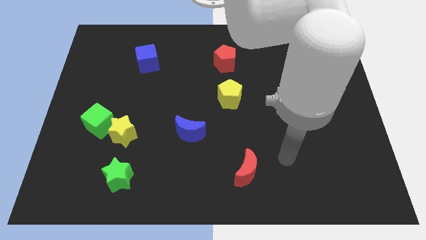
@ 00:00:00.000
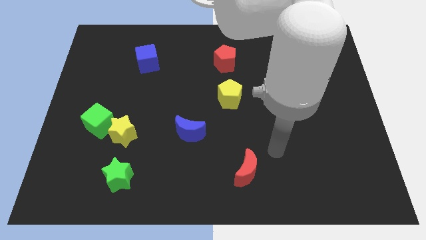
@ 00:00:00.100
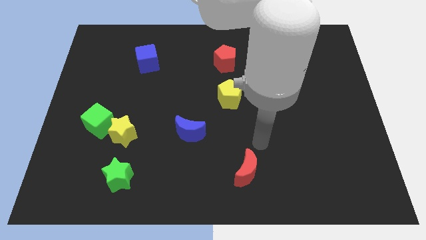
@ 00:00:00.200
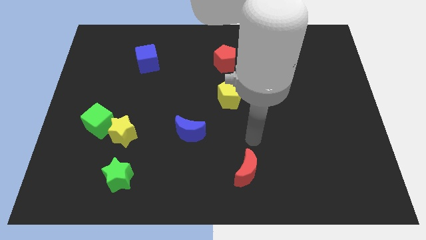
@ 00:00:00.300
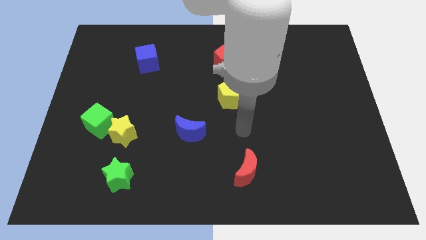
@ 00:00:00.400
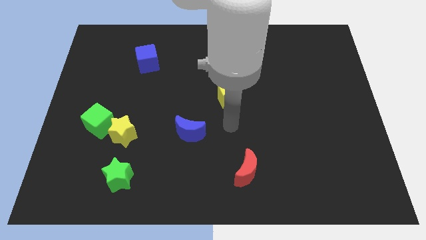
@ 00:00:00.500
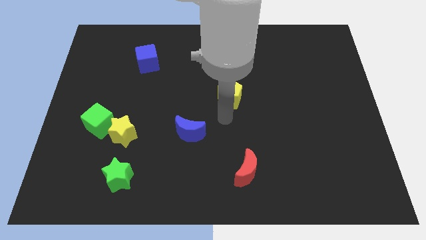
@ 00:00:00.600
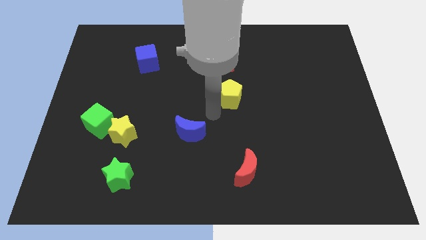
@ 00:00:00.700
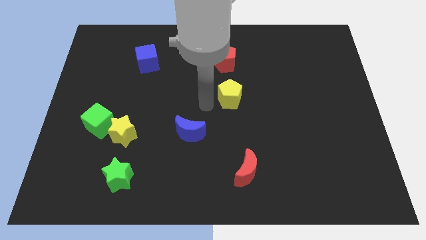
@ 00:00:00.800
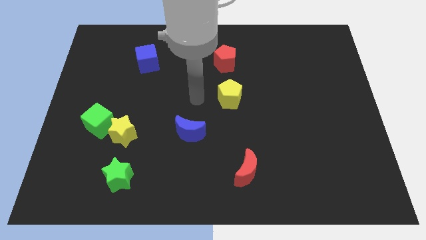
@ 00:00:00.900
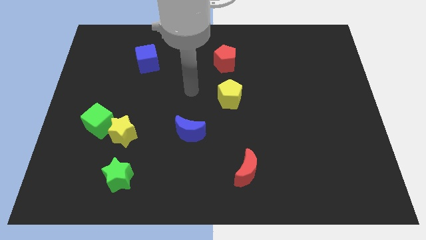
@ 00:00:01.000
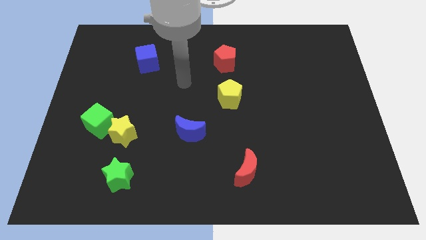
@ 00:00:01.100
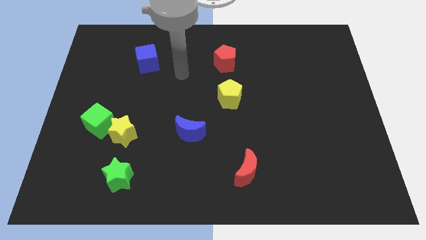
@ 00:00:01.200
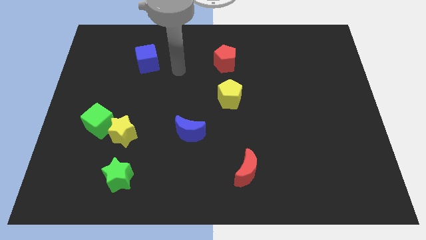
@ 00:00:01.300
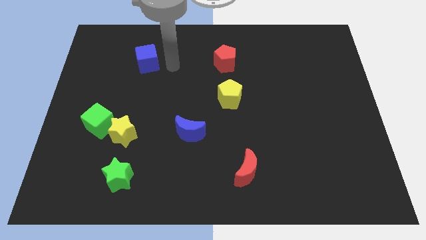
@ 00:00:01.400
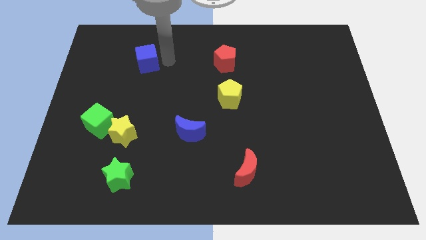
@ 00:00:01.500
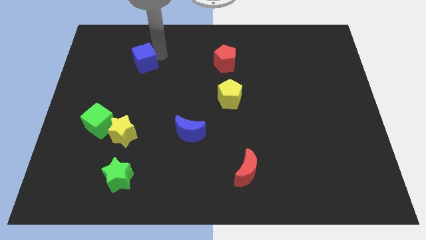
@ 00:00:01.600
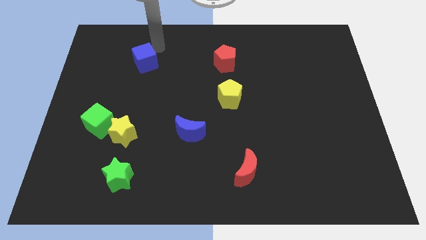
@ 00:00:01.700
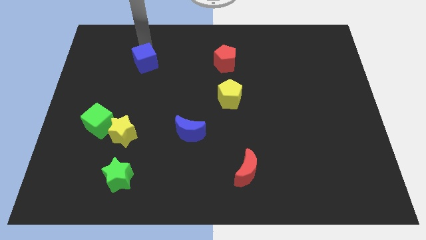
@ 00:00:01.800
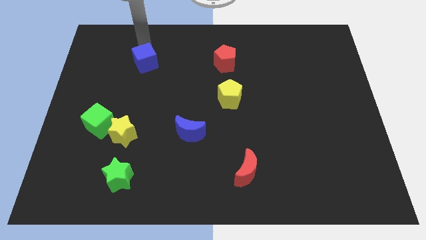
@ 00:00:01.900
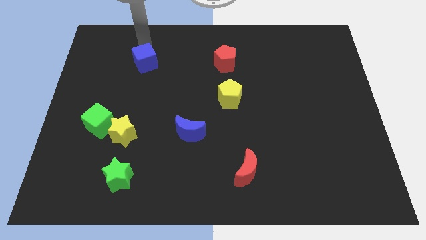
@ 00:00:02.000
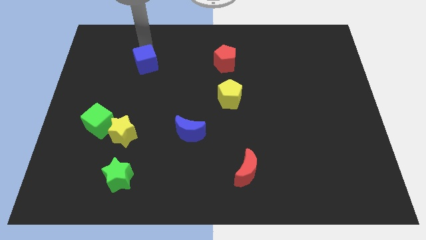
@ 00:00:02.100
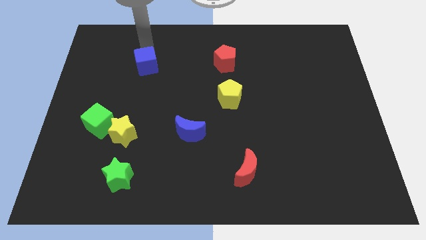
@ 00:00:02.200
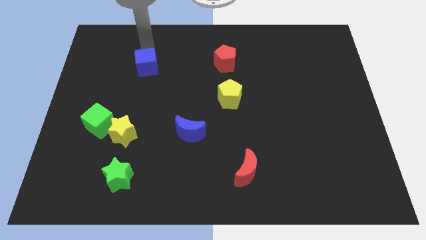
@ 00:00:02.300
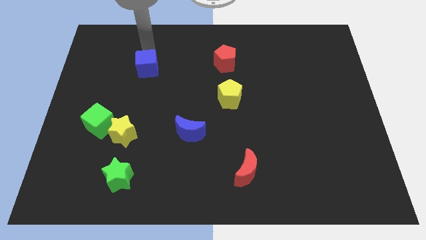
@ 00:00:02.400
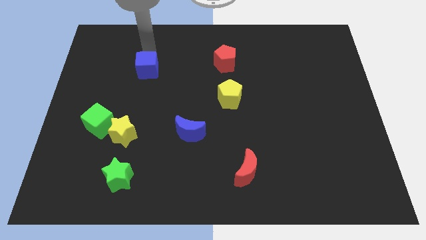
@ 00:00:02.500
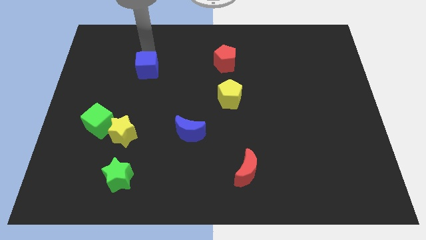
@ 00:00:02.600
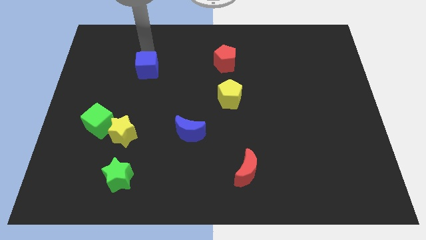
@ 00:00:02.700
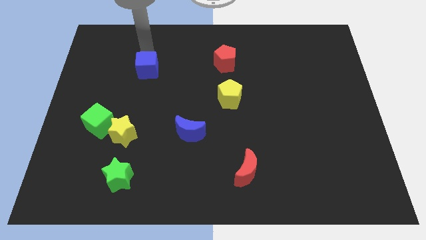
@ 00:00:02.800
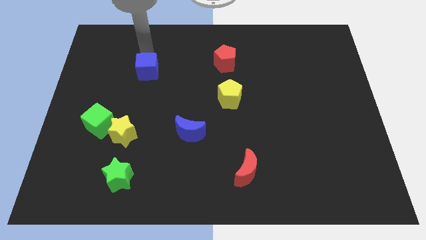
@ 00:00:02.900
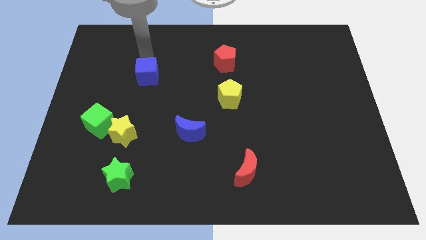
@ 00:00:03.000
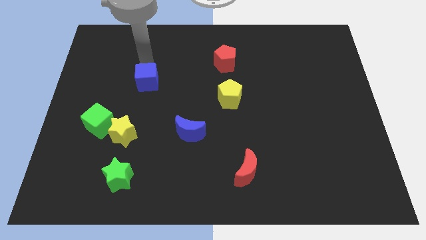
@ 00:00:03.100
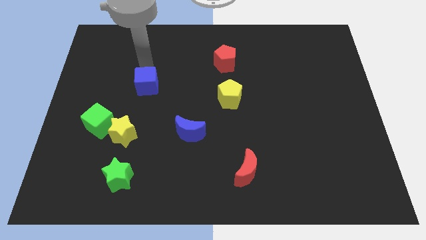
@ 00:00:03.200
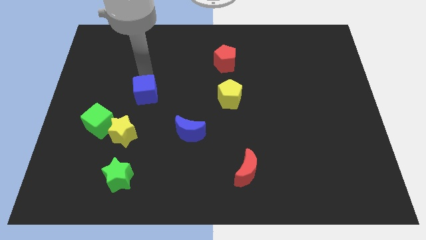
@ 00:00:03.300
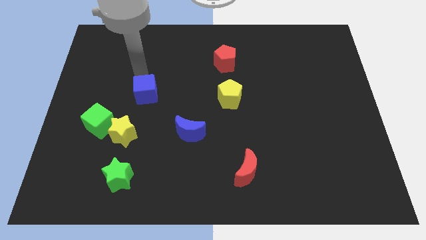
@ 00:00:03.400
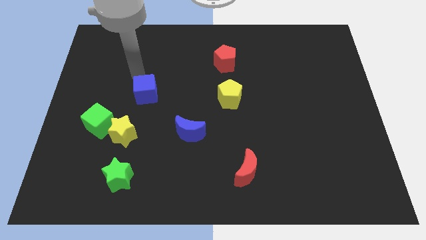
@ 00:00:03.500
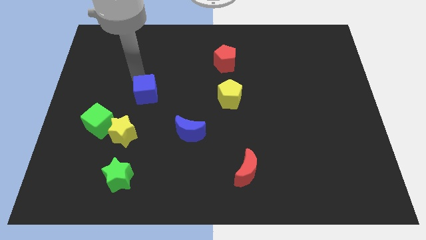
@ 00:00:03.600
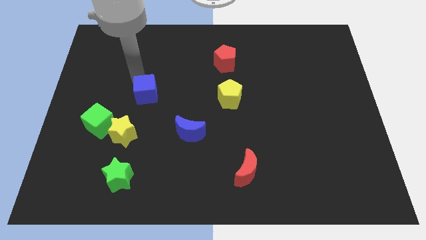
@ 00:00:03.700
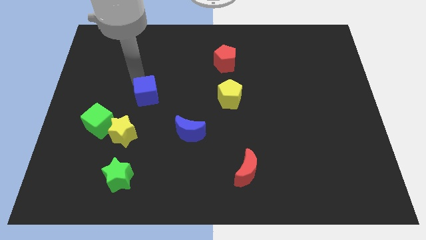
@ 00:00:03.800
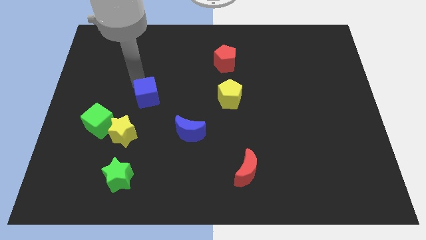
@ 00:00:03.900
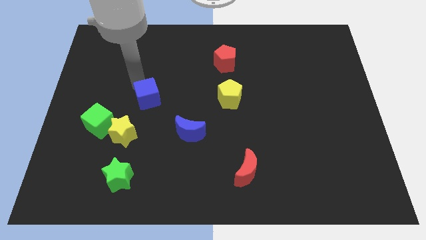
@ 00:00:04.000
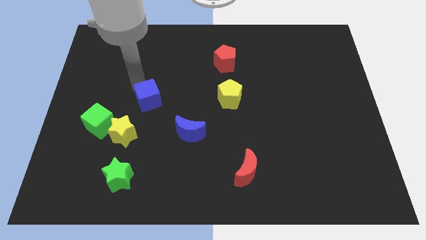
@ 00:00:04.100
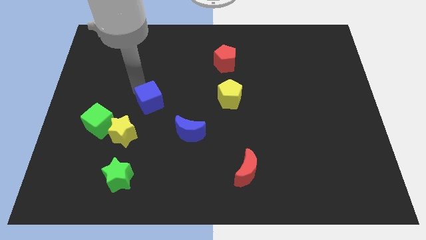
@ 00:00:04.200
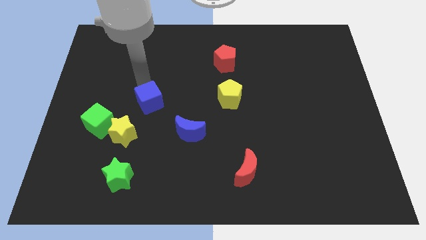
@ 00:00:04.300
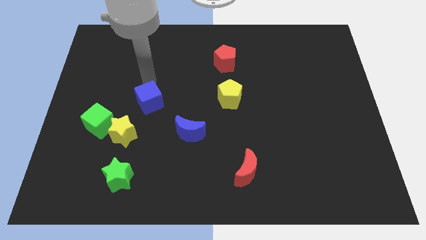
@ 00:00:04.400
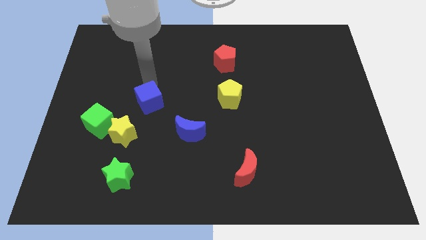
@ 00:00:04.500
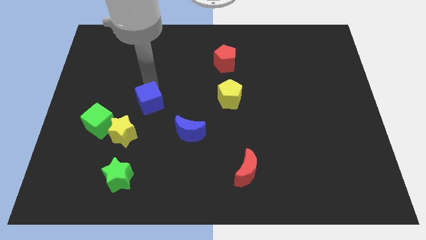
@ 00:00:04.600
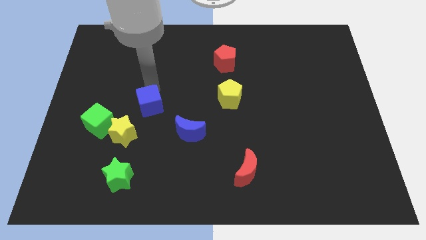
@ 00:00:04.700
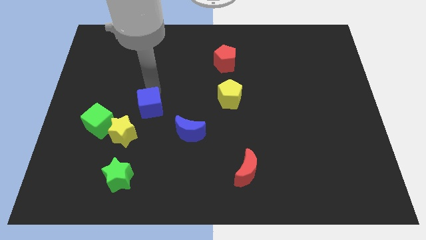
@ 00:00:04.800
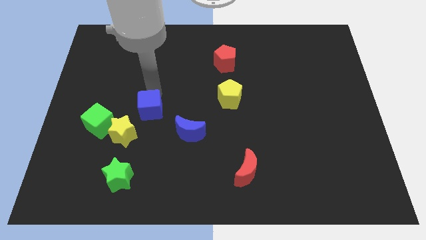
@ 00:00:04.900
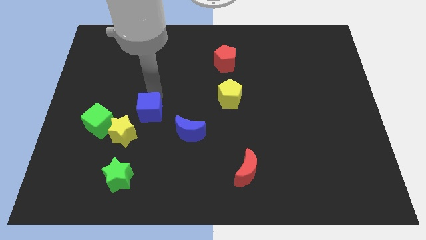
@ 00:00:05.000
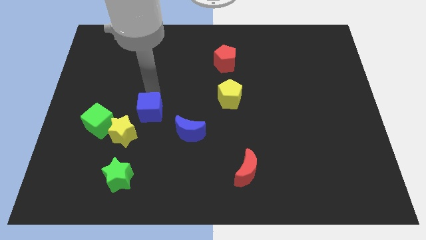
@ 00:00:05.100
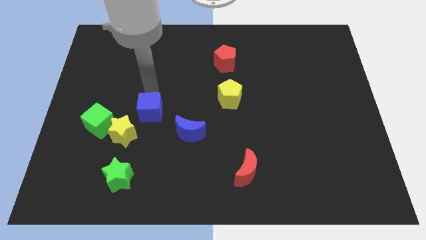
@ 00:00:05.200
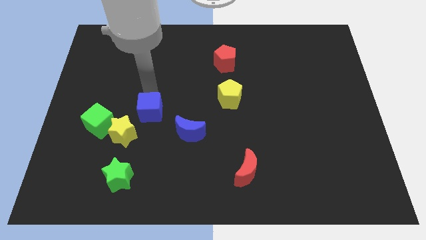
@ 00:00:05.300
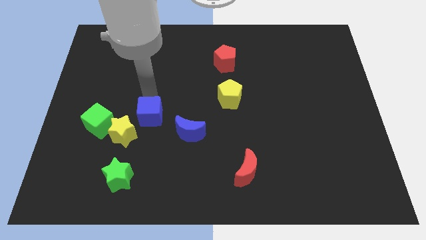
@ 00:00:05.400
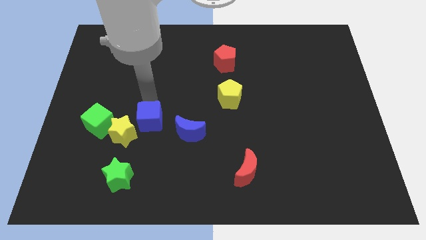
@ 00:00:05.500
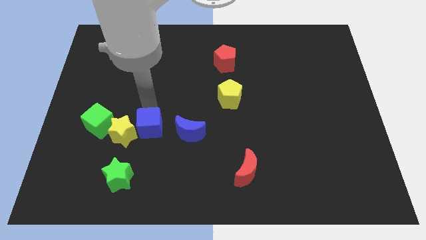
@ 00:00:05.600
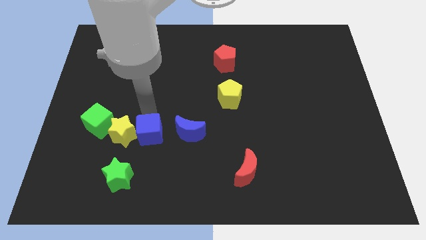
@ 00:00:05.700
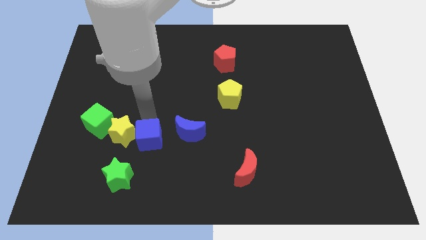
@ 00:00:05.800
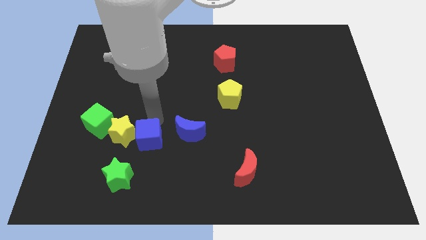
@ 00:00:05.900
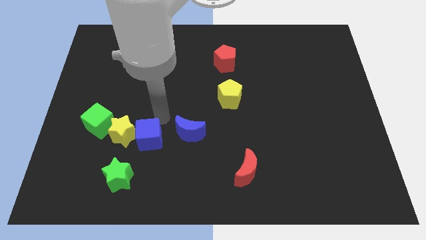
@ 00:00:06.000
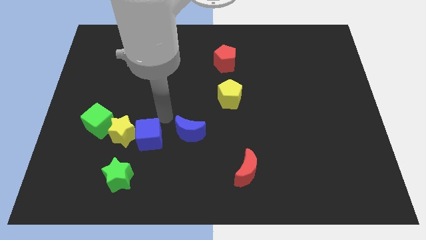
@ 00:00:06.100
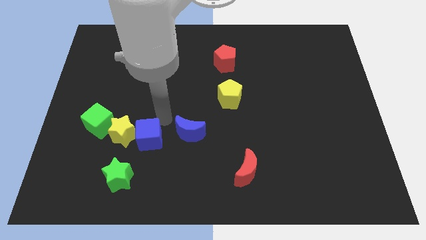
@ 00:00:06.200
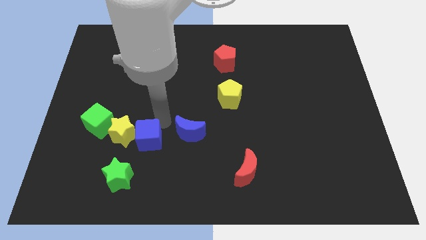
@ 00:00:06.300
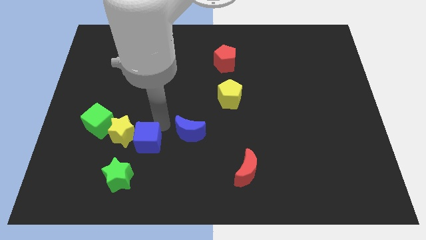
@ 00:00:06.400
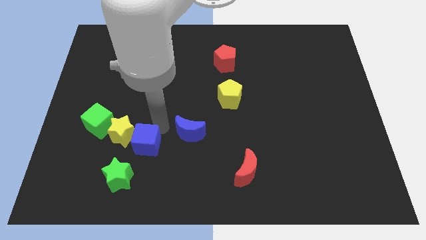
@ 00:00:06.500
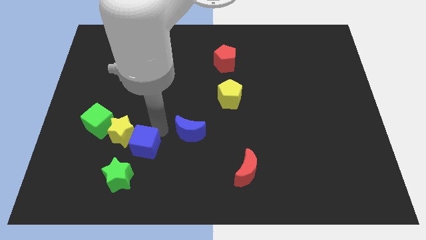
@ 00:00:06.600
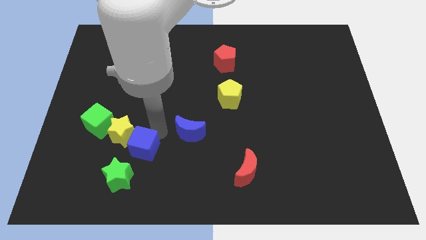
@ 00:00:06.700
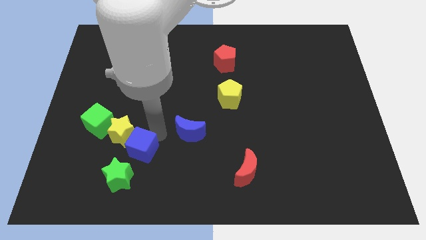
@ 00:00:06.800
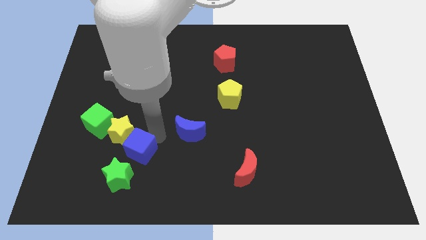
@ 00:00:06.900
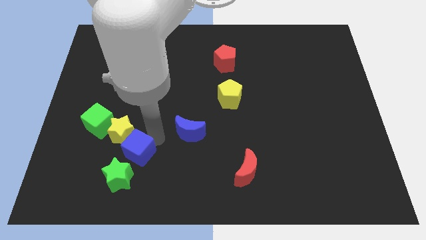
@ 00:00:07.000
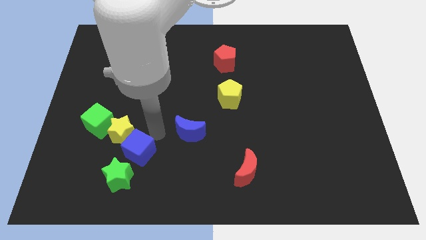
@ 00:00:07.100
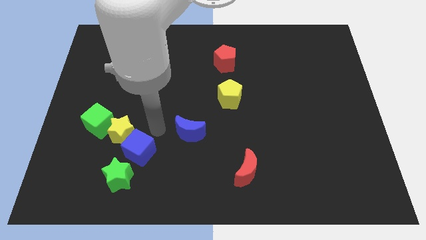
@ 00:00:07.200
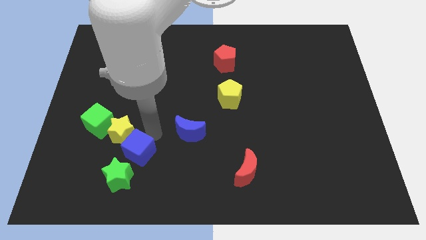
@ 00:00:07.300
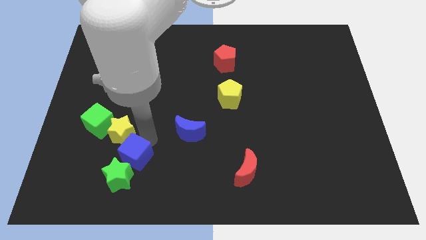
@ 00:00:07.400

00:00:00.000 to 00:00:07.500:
move the blue cube to the green star
